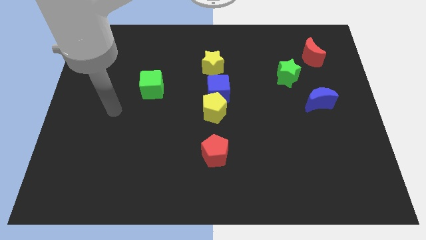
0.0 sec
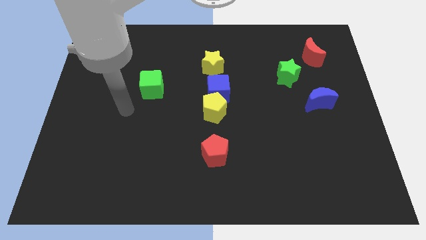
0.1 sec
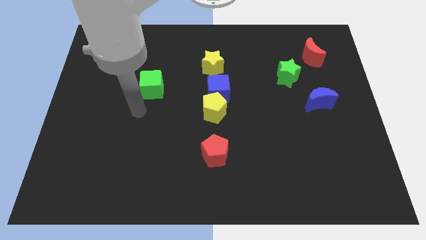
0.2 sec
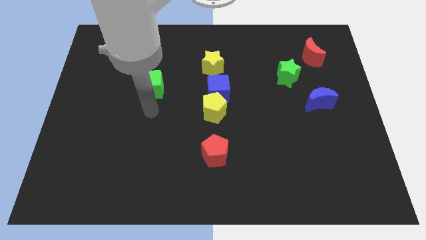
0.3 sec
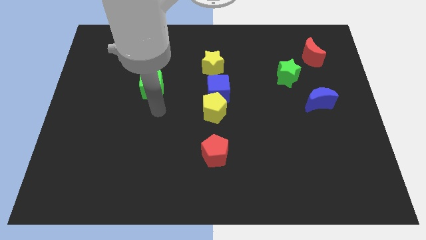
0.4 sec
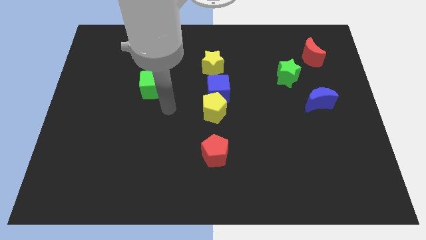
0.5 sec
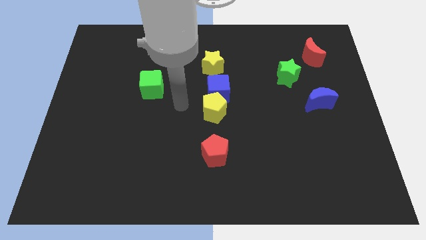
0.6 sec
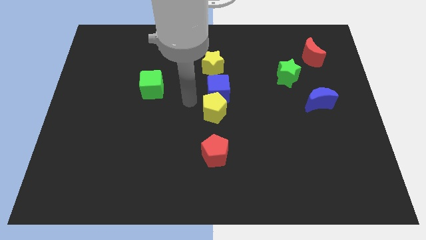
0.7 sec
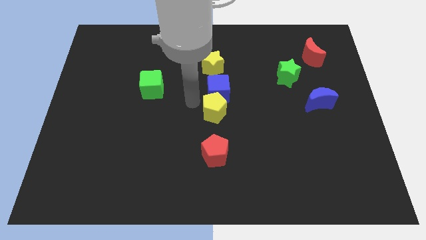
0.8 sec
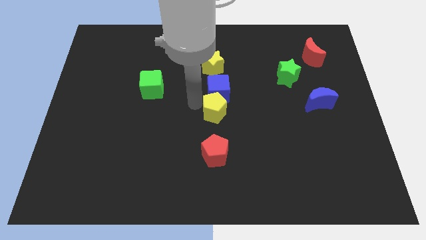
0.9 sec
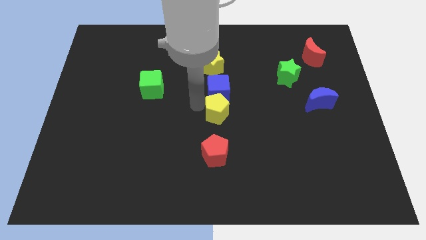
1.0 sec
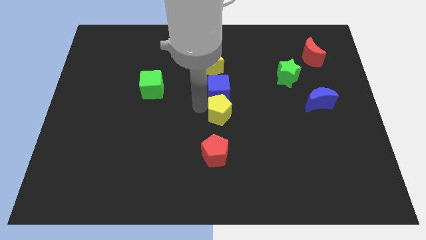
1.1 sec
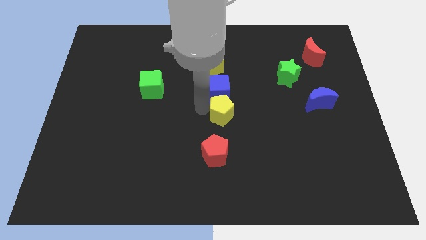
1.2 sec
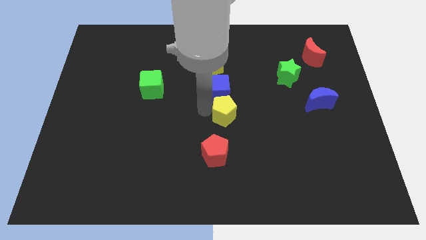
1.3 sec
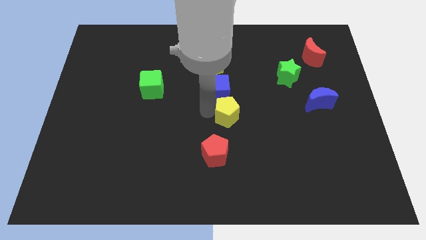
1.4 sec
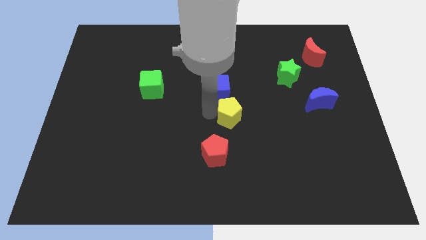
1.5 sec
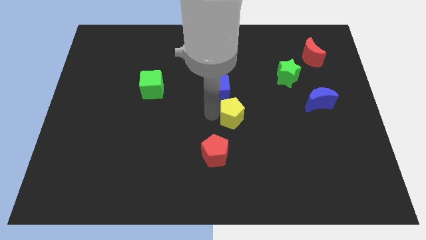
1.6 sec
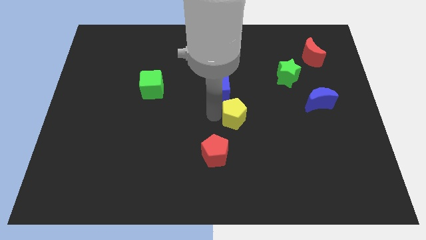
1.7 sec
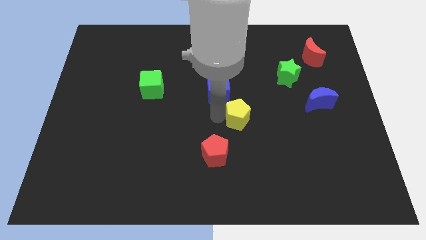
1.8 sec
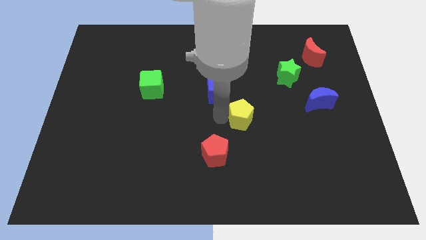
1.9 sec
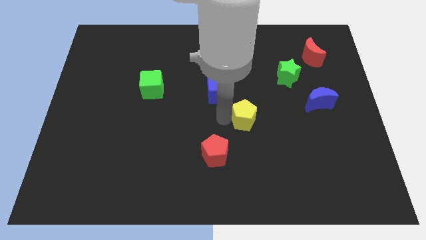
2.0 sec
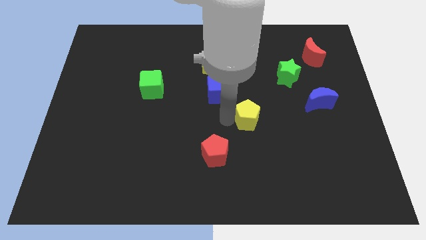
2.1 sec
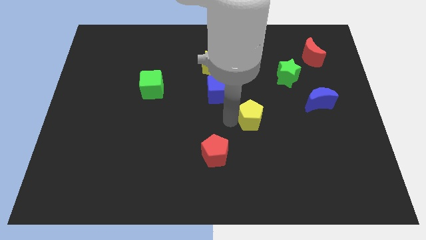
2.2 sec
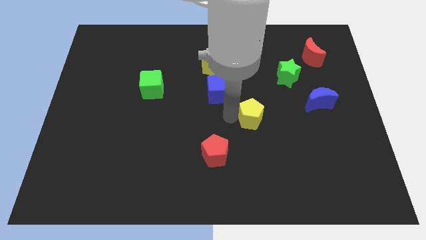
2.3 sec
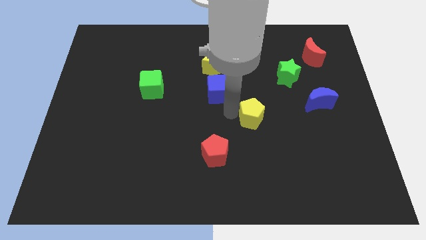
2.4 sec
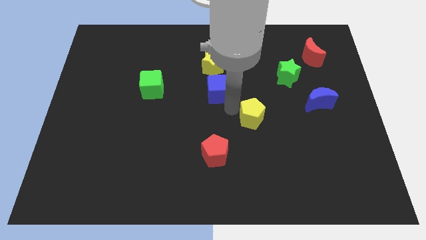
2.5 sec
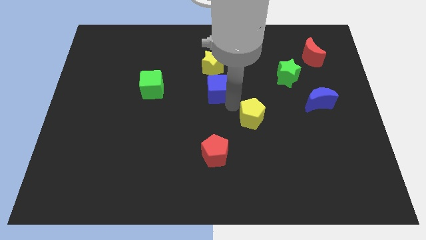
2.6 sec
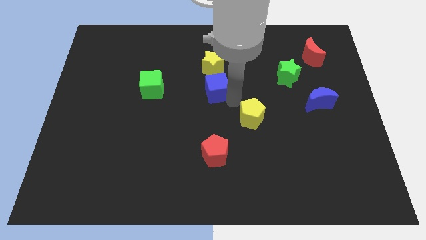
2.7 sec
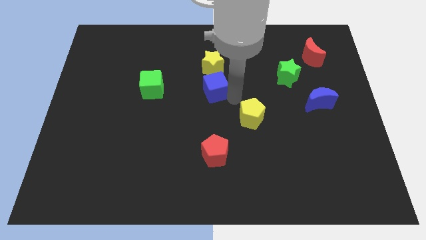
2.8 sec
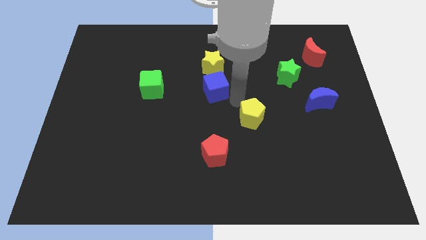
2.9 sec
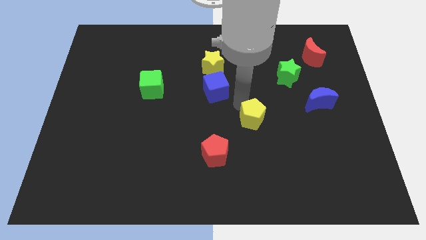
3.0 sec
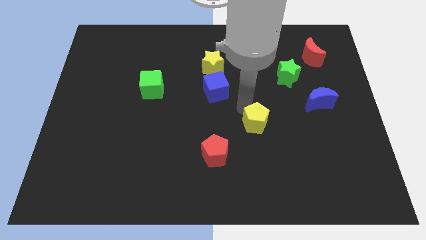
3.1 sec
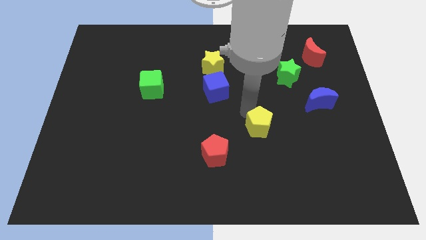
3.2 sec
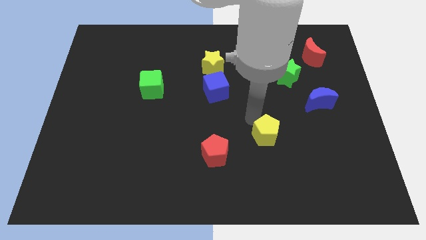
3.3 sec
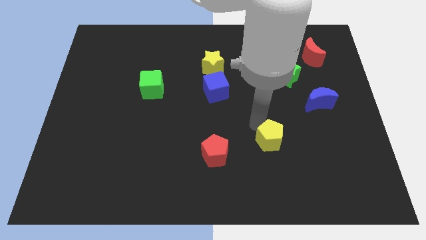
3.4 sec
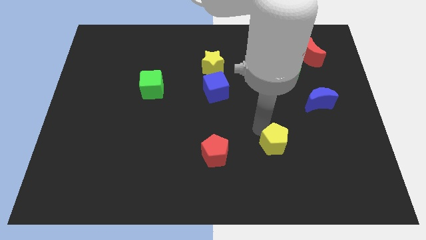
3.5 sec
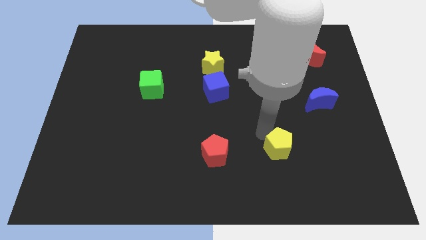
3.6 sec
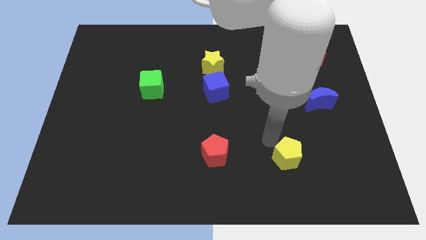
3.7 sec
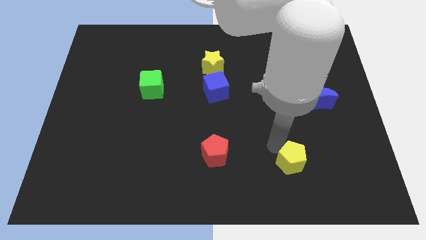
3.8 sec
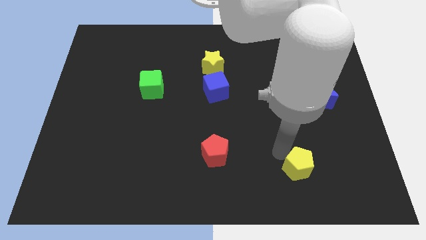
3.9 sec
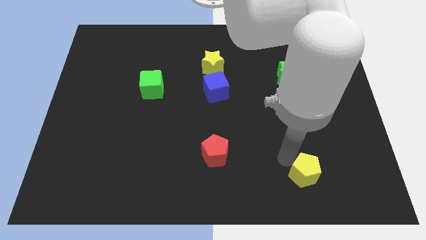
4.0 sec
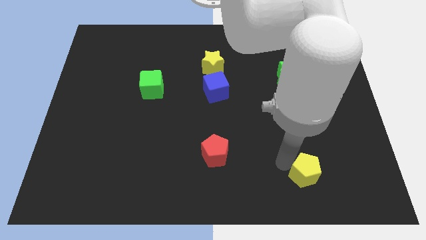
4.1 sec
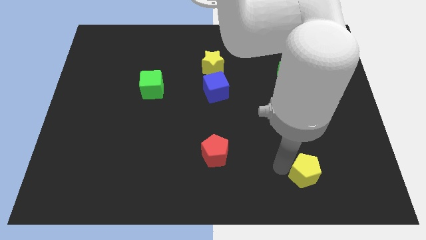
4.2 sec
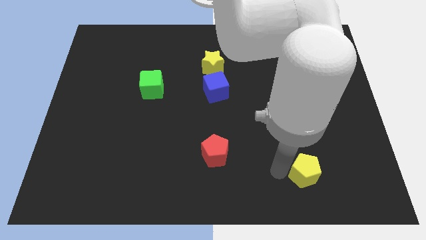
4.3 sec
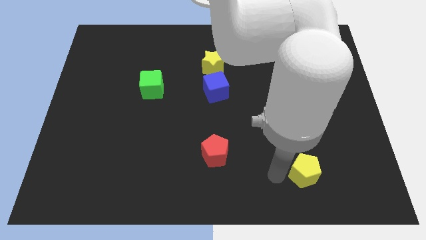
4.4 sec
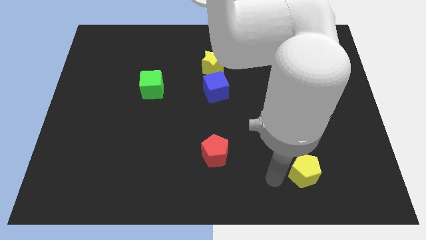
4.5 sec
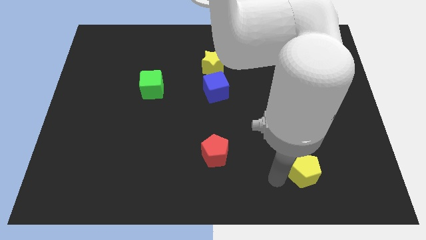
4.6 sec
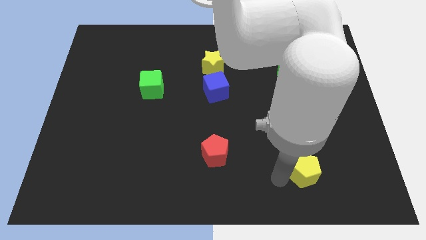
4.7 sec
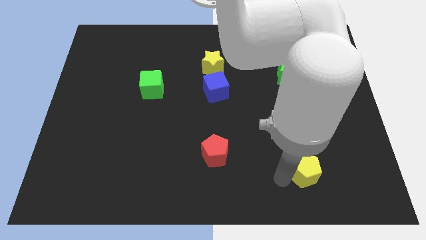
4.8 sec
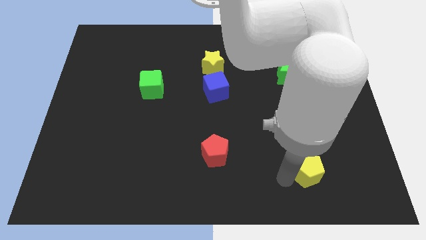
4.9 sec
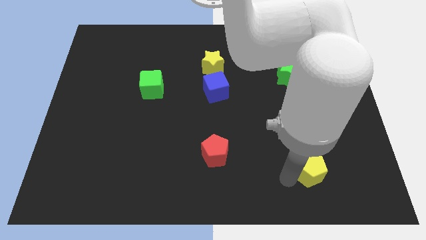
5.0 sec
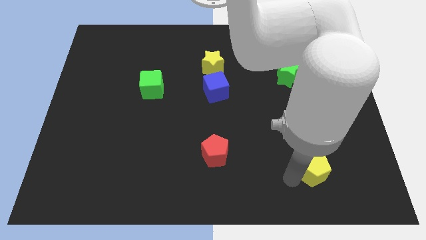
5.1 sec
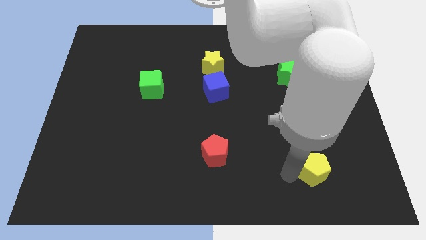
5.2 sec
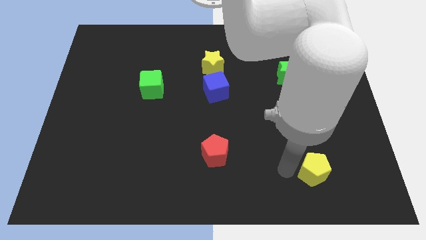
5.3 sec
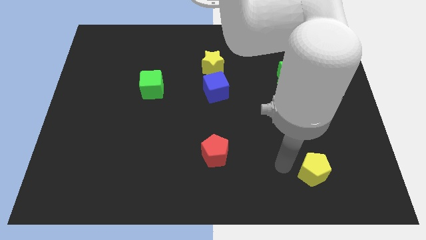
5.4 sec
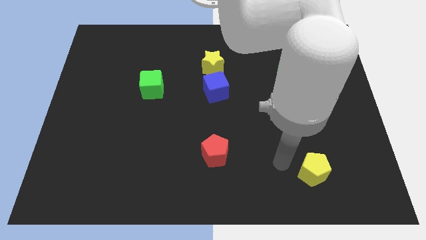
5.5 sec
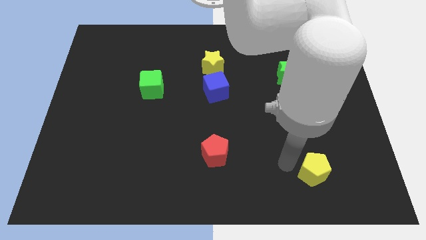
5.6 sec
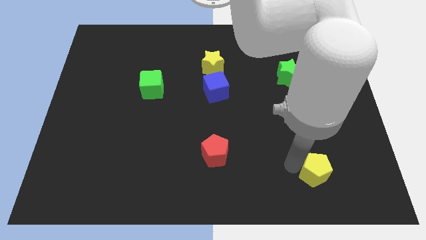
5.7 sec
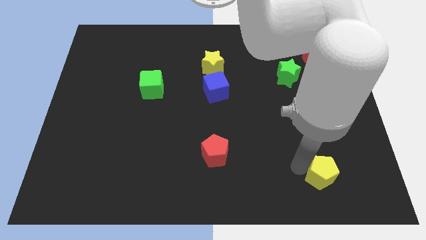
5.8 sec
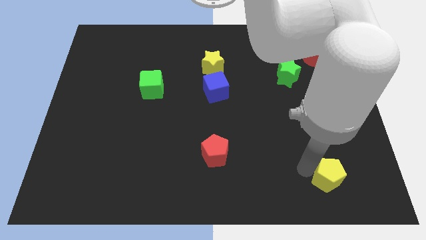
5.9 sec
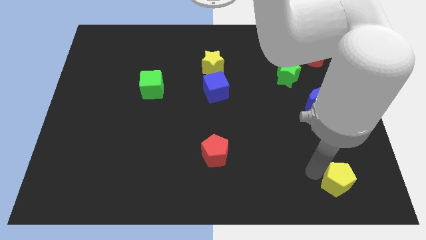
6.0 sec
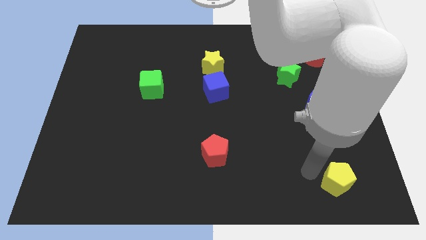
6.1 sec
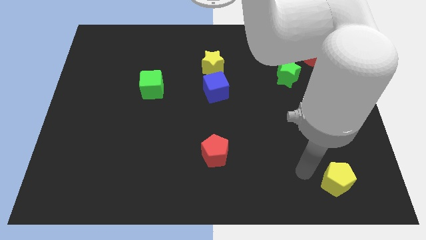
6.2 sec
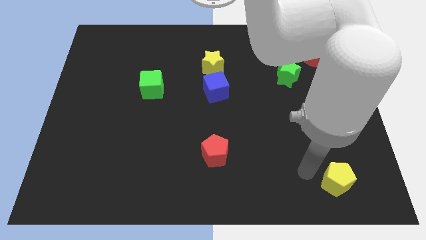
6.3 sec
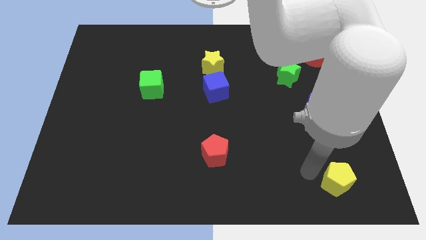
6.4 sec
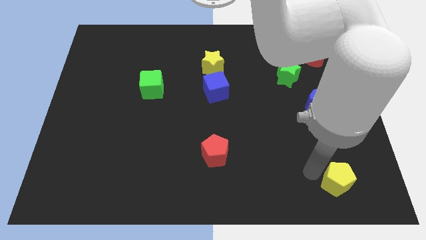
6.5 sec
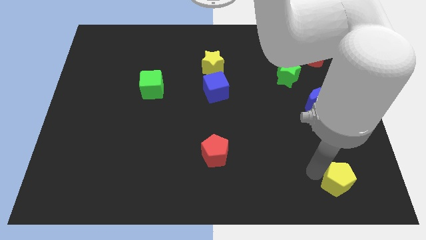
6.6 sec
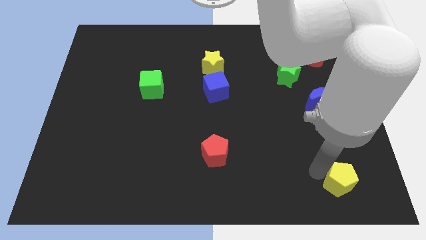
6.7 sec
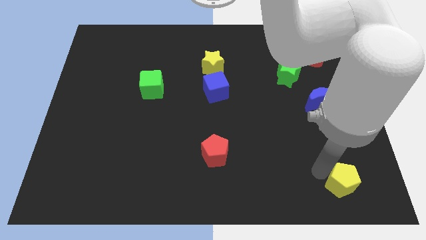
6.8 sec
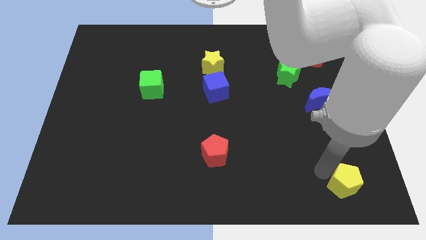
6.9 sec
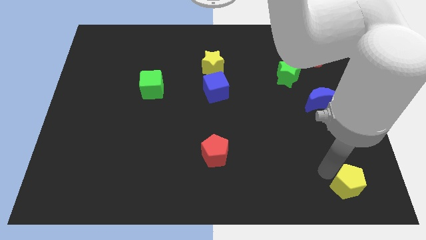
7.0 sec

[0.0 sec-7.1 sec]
move the yellow pentagon to the bottom right
